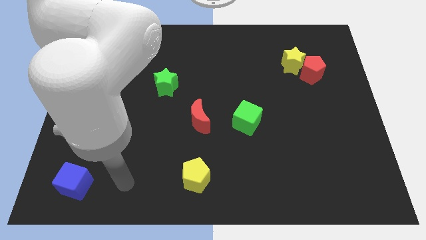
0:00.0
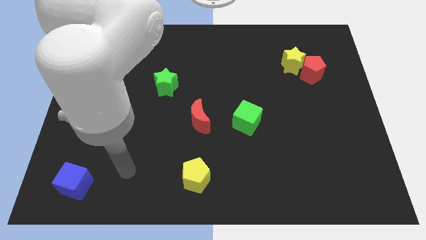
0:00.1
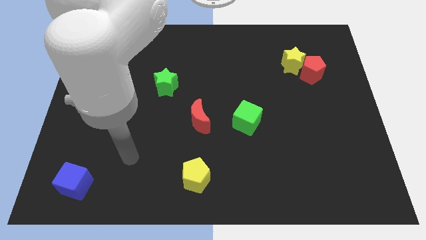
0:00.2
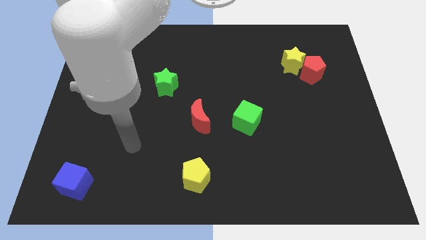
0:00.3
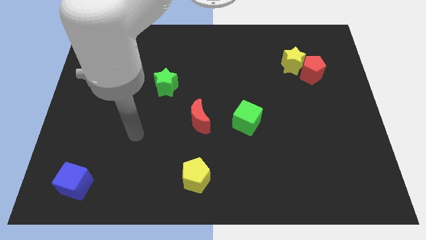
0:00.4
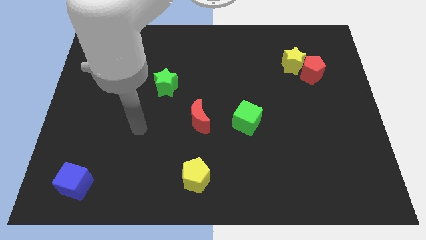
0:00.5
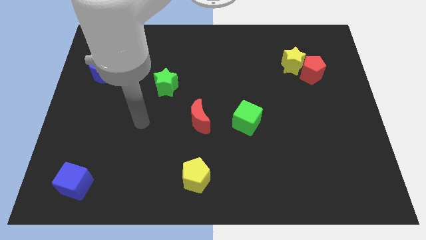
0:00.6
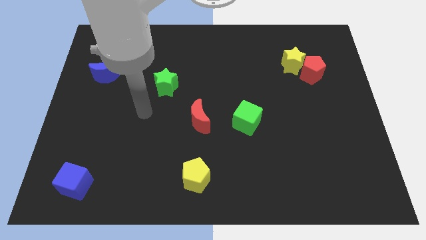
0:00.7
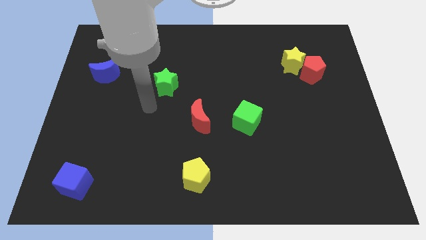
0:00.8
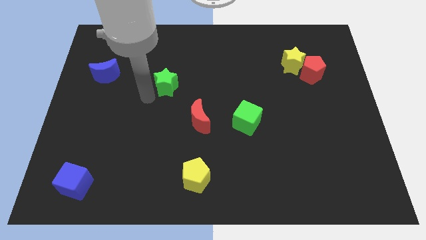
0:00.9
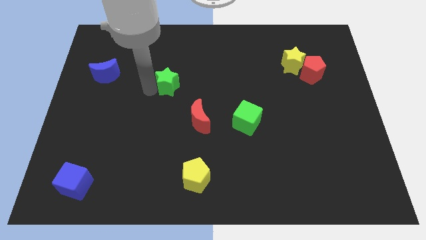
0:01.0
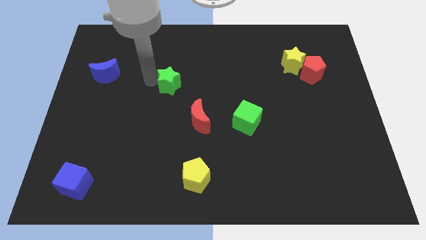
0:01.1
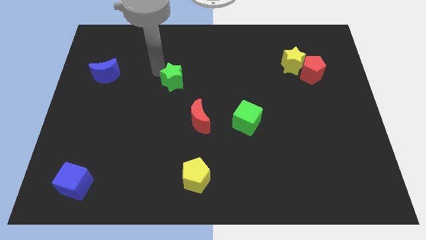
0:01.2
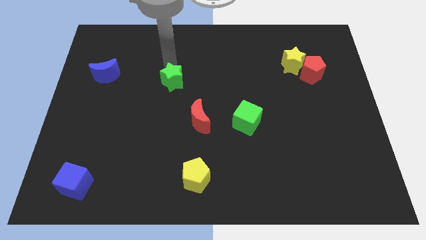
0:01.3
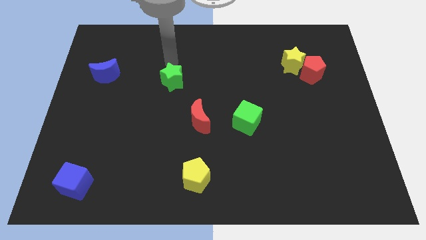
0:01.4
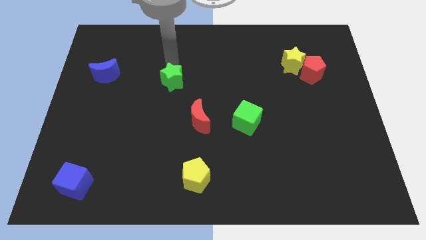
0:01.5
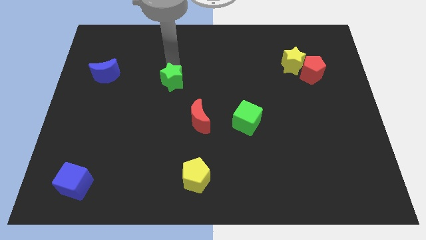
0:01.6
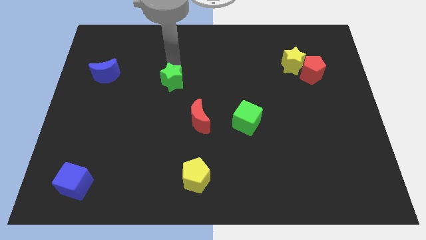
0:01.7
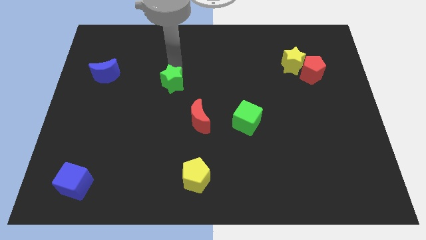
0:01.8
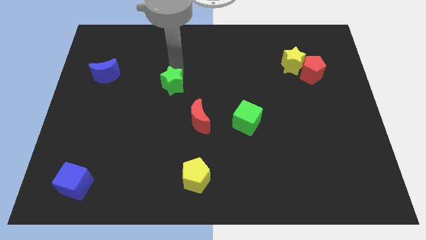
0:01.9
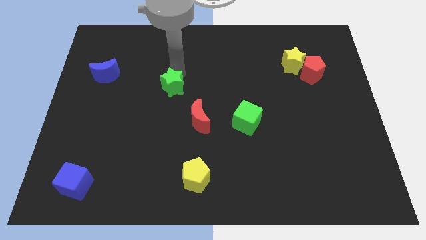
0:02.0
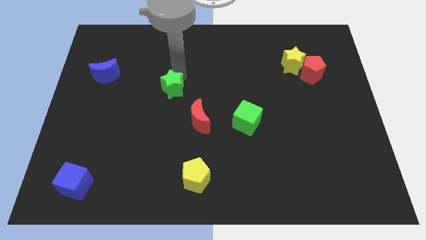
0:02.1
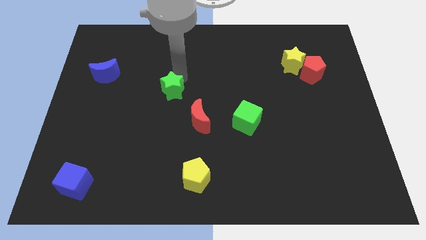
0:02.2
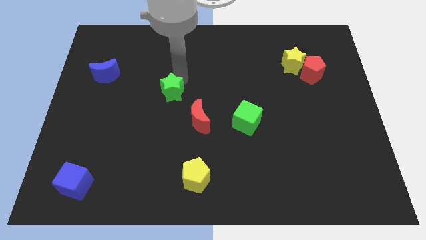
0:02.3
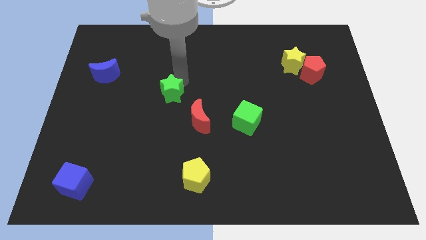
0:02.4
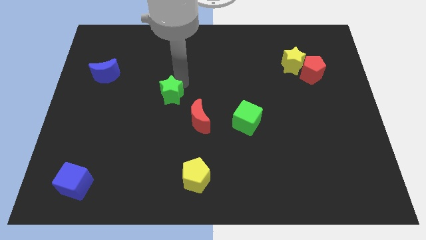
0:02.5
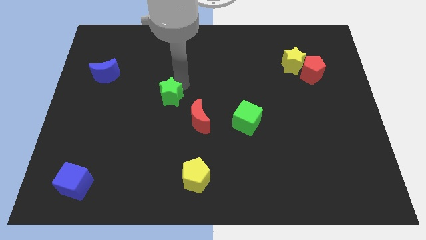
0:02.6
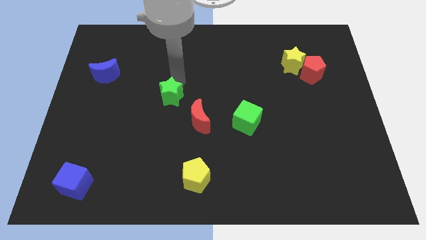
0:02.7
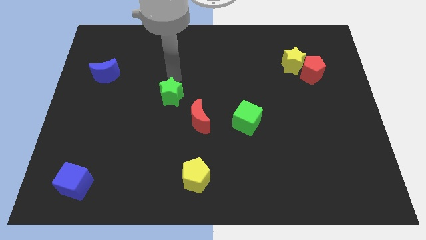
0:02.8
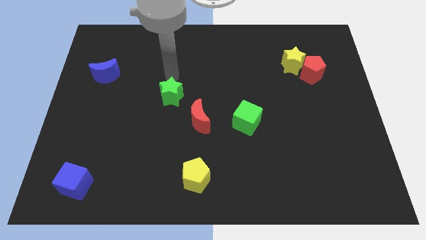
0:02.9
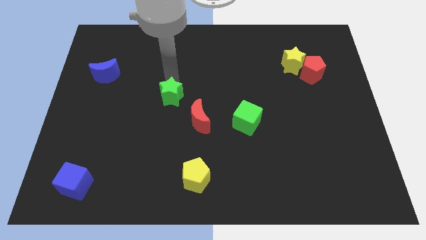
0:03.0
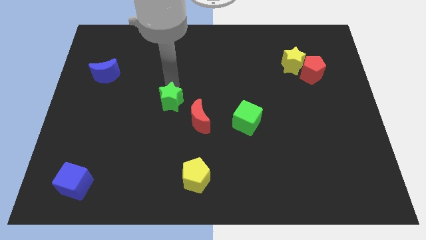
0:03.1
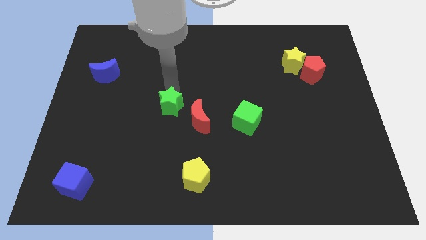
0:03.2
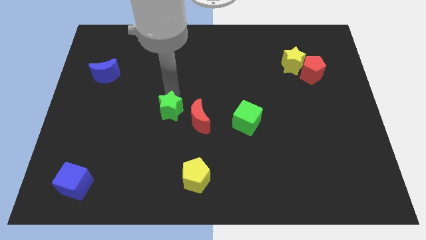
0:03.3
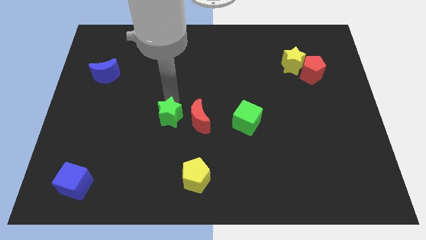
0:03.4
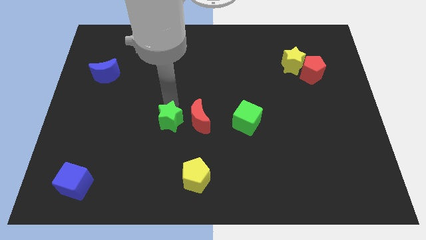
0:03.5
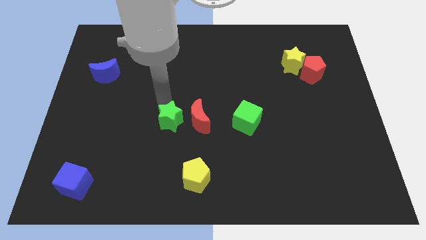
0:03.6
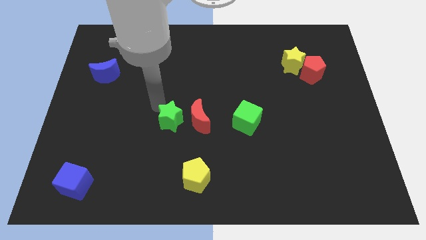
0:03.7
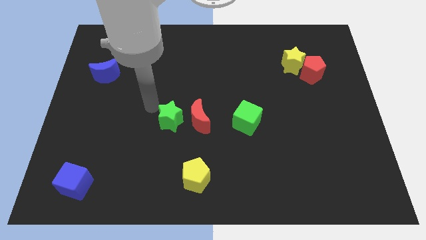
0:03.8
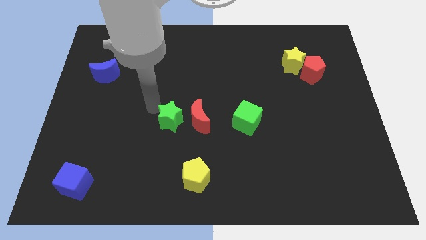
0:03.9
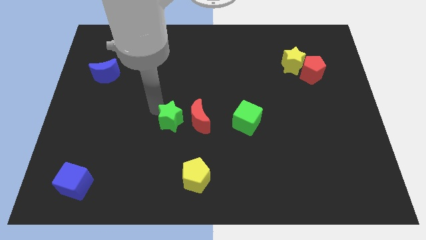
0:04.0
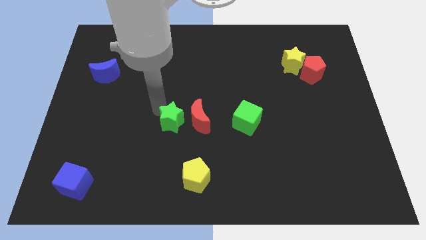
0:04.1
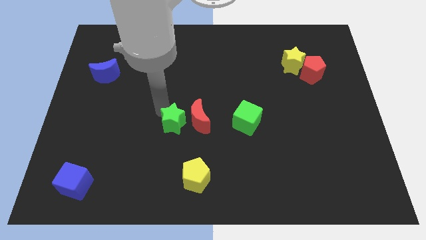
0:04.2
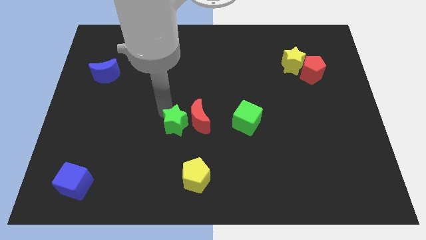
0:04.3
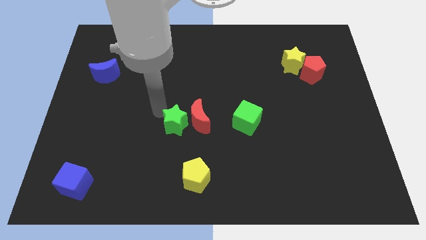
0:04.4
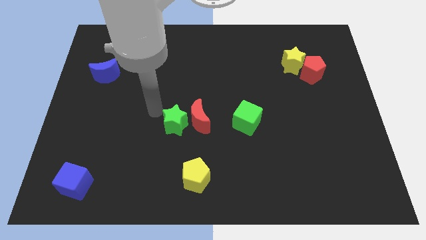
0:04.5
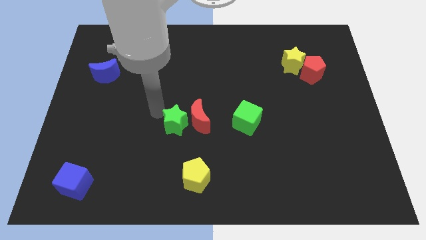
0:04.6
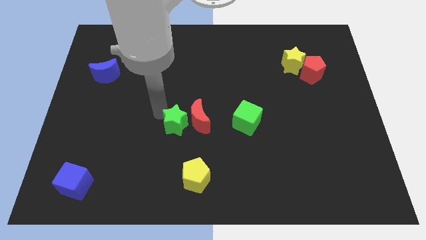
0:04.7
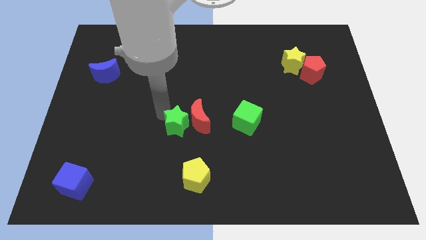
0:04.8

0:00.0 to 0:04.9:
move the green star to the top side of the yellow pentagon

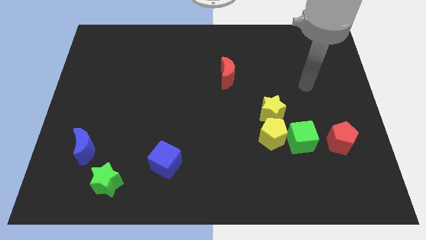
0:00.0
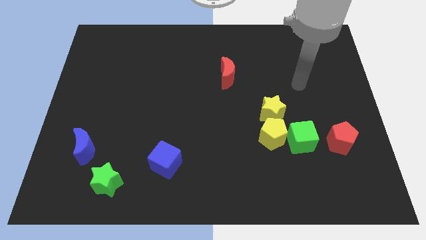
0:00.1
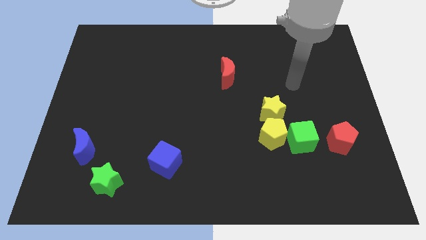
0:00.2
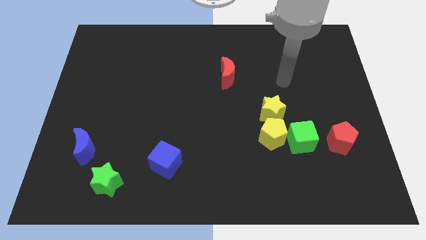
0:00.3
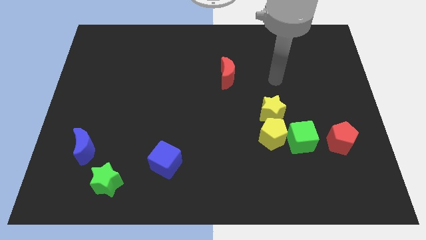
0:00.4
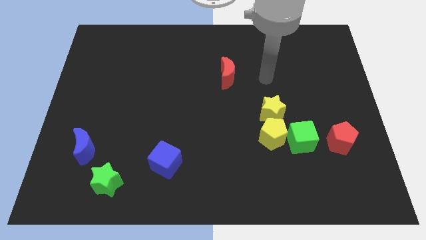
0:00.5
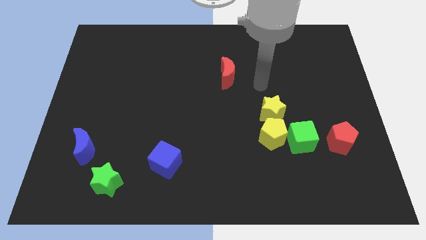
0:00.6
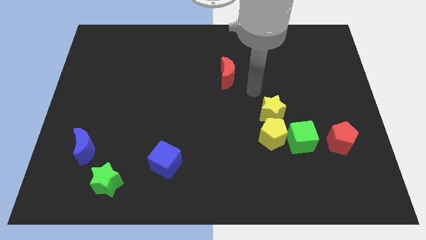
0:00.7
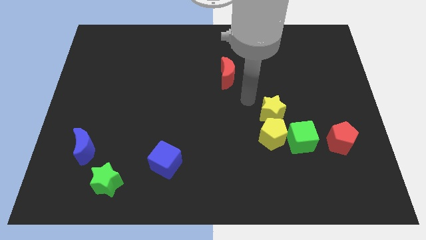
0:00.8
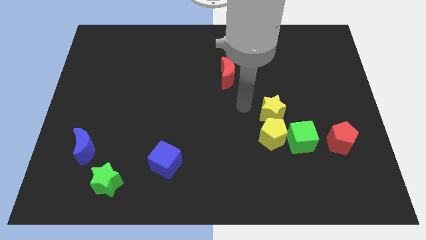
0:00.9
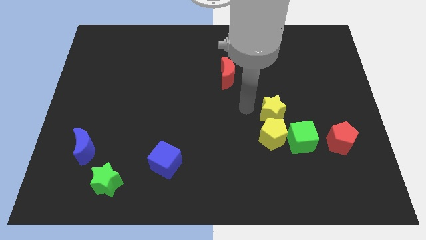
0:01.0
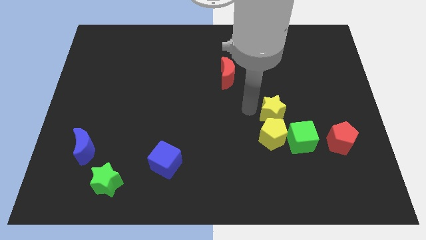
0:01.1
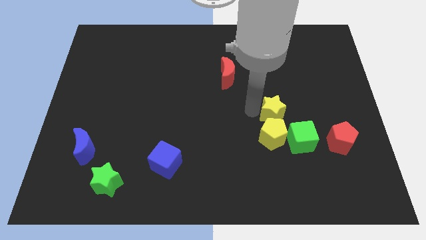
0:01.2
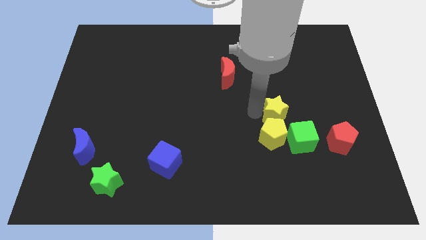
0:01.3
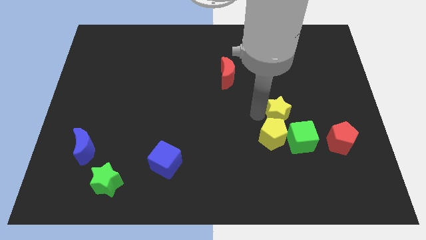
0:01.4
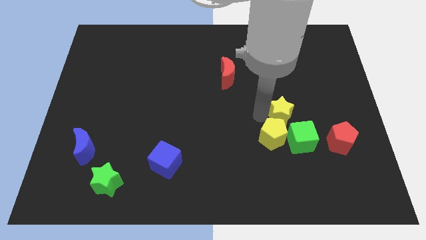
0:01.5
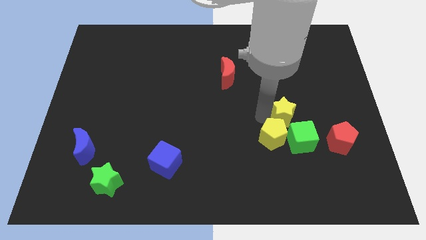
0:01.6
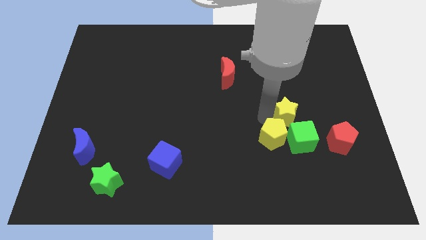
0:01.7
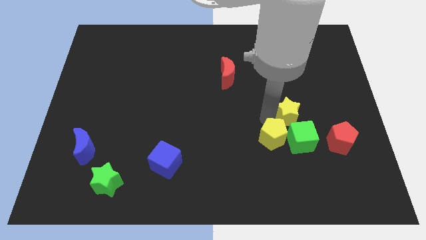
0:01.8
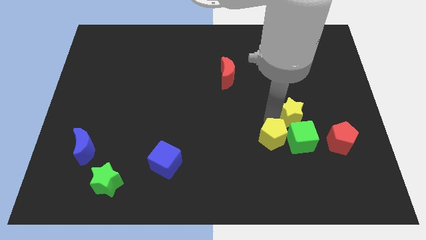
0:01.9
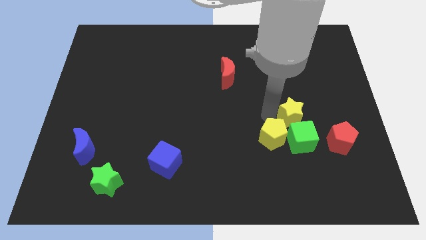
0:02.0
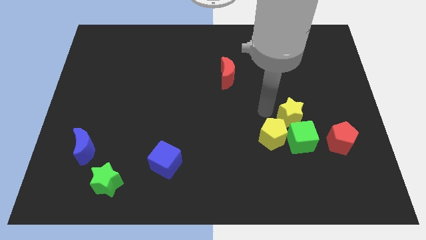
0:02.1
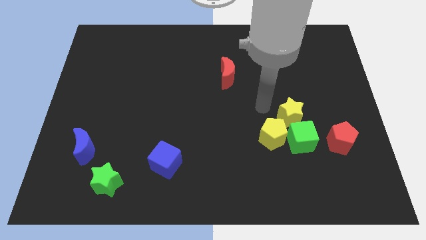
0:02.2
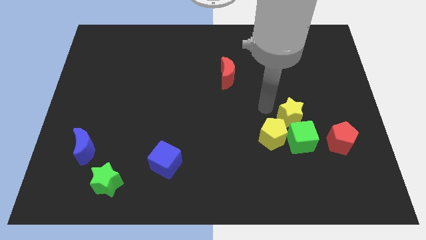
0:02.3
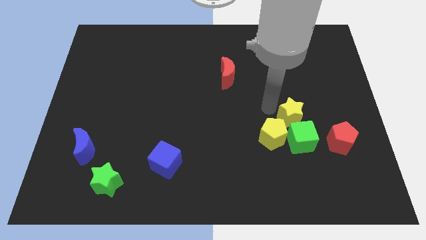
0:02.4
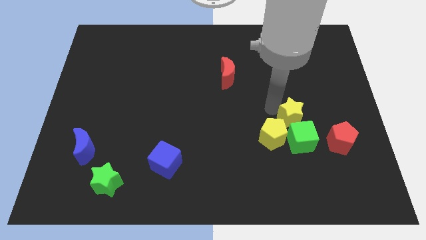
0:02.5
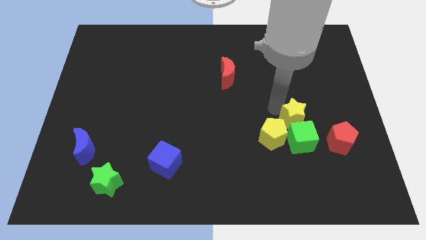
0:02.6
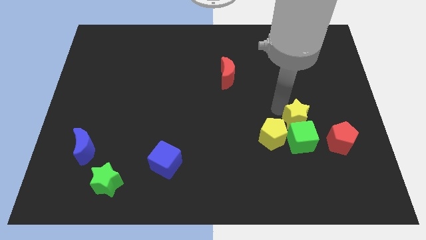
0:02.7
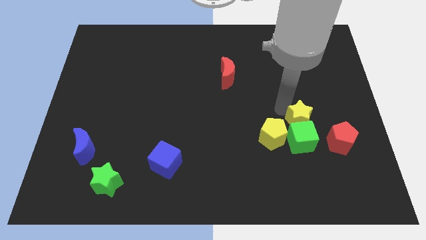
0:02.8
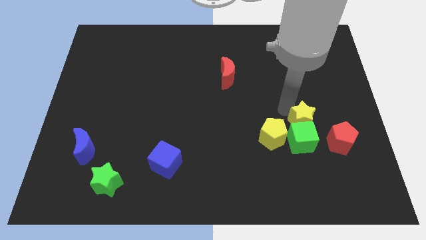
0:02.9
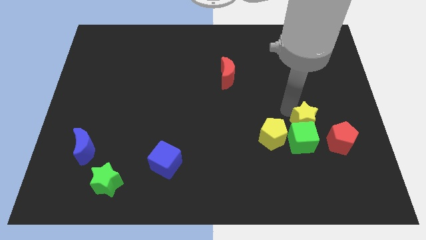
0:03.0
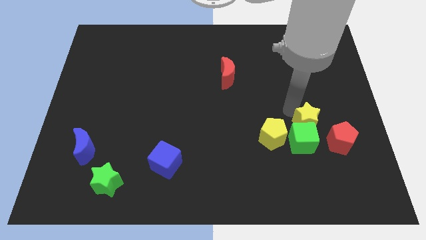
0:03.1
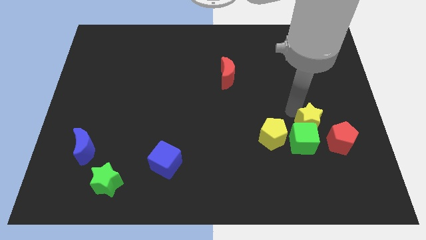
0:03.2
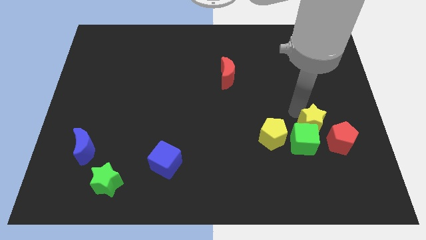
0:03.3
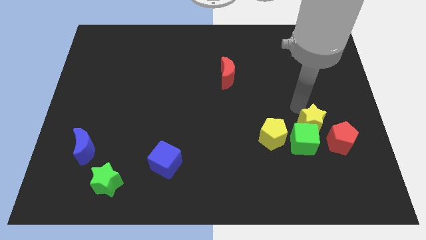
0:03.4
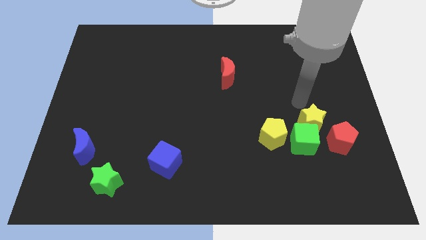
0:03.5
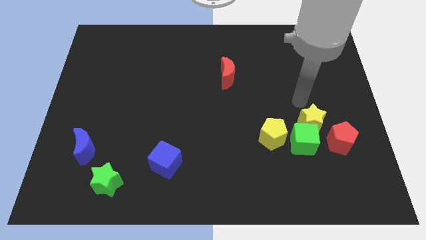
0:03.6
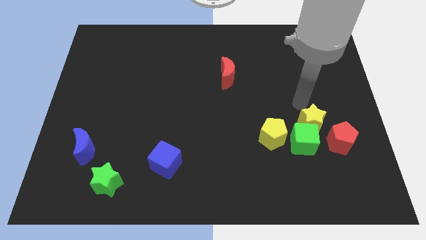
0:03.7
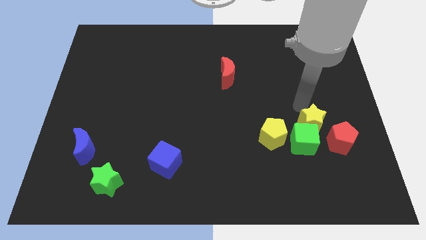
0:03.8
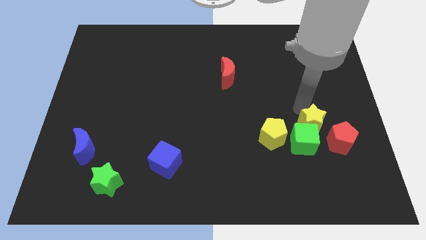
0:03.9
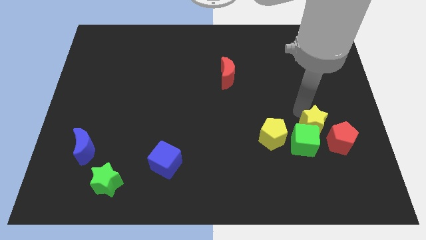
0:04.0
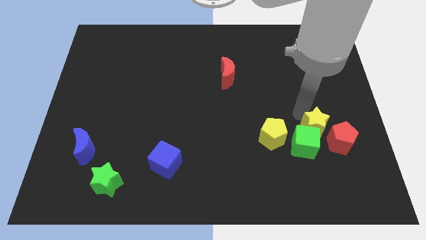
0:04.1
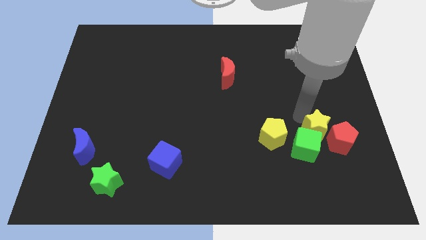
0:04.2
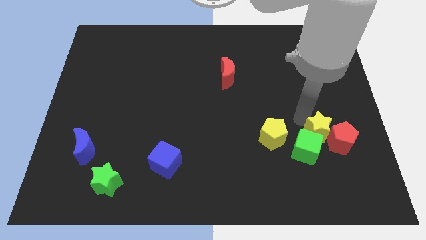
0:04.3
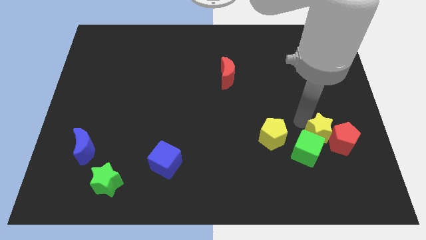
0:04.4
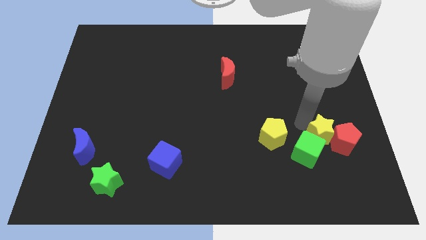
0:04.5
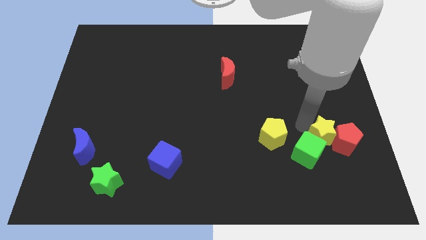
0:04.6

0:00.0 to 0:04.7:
push the yellow star to the bottom left of the red pentagon
